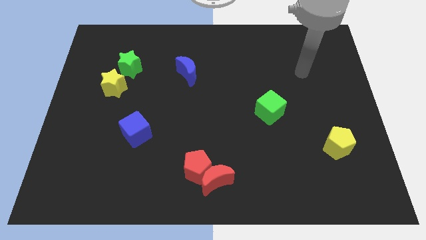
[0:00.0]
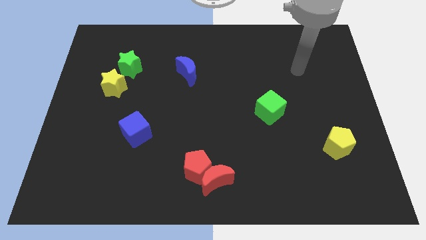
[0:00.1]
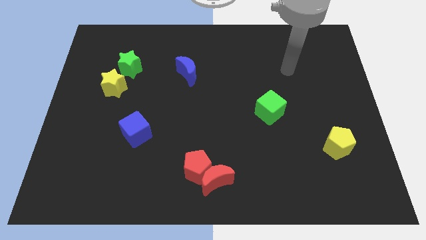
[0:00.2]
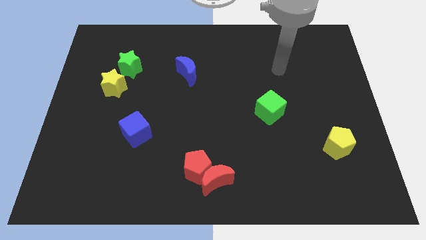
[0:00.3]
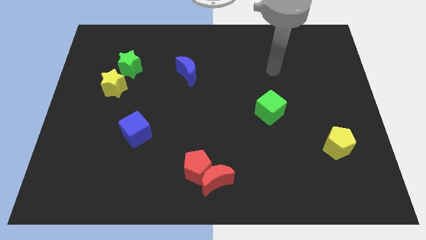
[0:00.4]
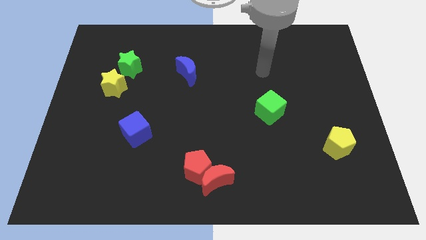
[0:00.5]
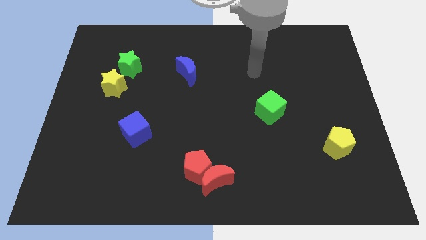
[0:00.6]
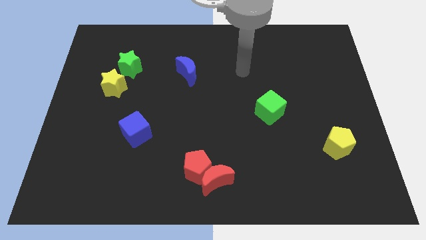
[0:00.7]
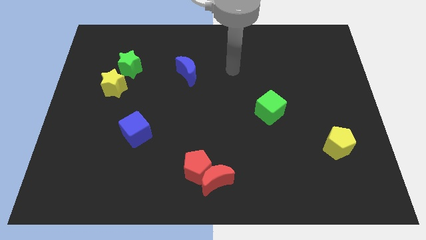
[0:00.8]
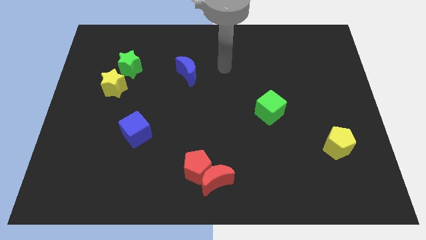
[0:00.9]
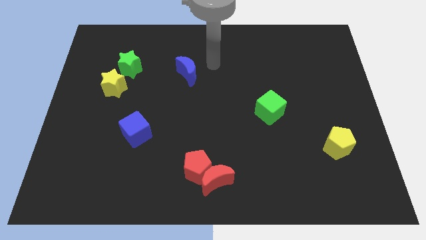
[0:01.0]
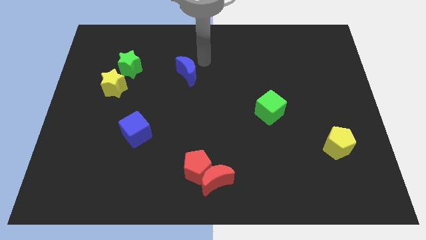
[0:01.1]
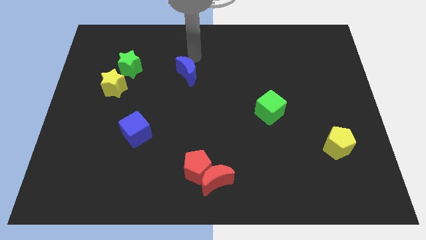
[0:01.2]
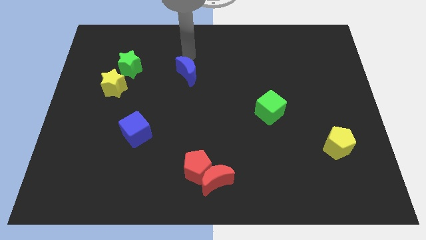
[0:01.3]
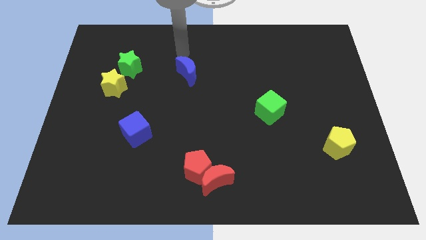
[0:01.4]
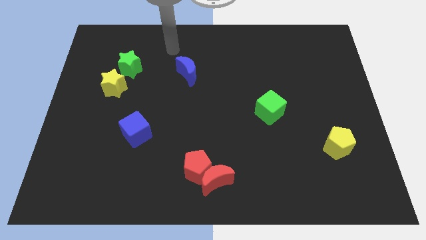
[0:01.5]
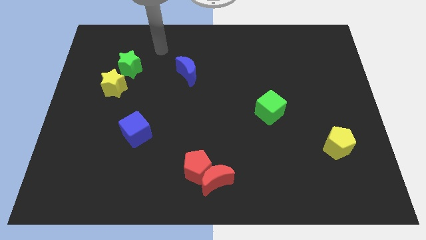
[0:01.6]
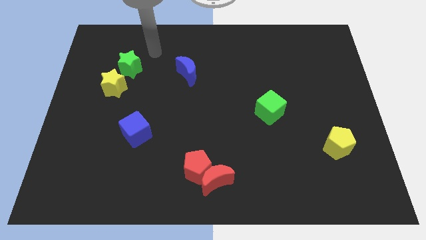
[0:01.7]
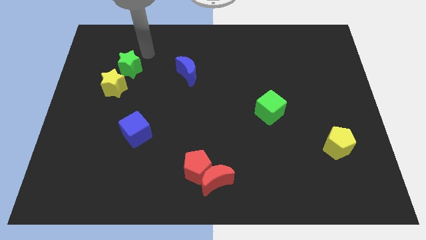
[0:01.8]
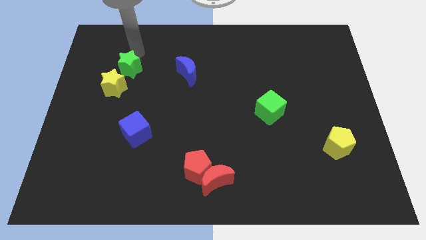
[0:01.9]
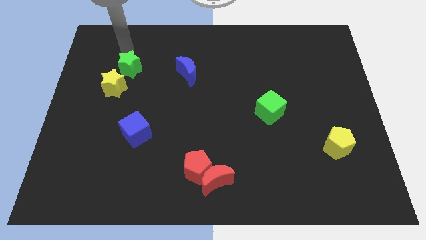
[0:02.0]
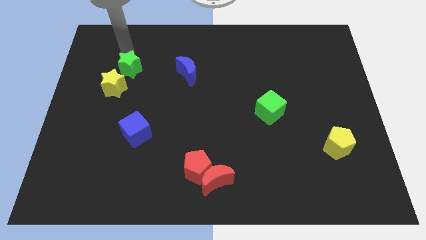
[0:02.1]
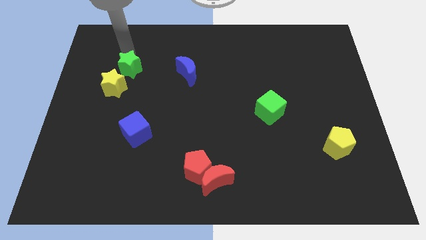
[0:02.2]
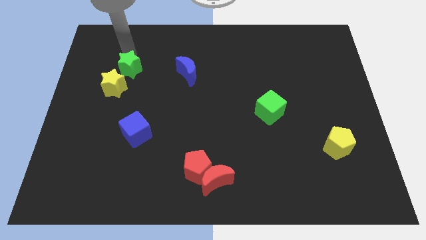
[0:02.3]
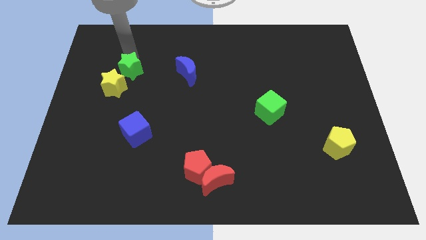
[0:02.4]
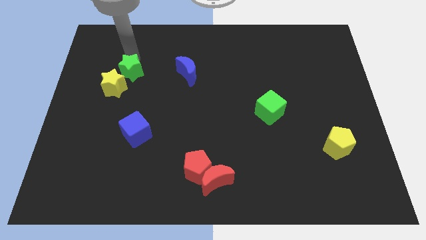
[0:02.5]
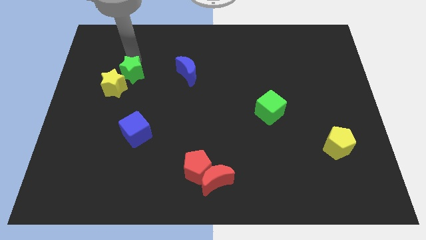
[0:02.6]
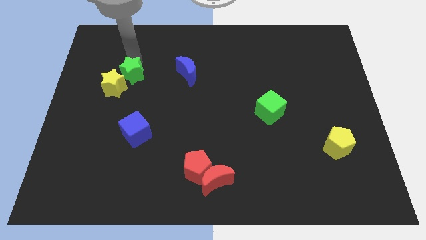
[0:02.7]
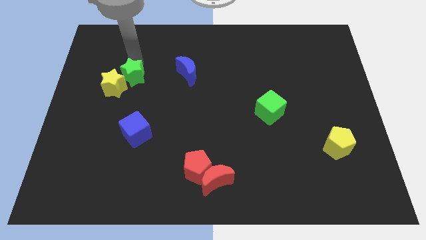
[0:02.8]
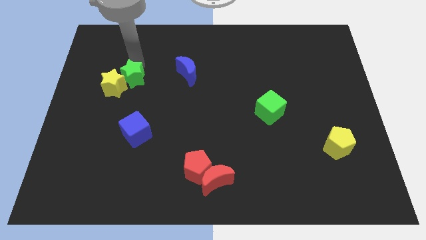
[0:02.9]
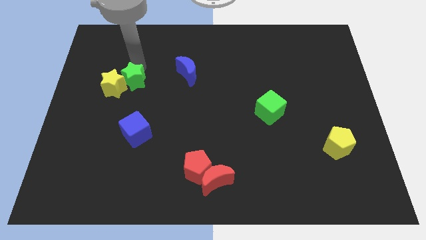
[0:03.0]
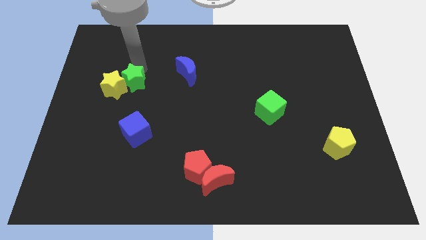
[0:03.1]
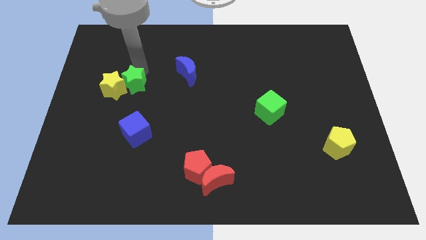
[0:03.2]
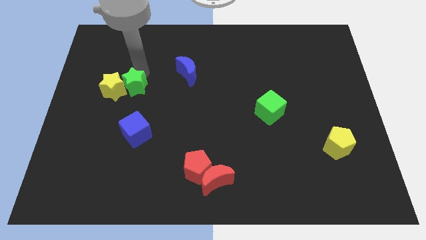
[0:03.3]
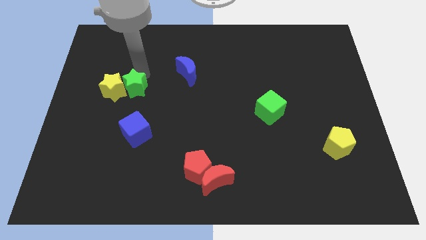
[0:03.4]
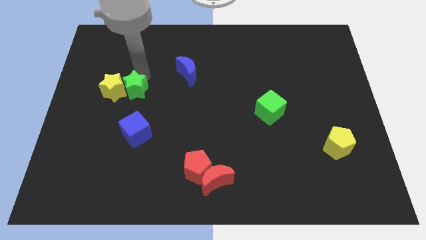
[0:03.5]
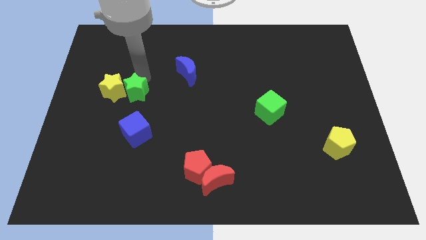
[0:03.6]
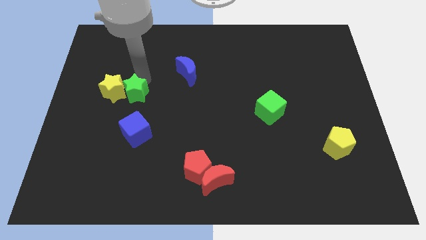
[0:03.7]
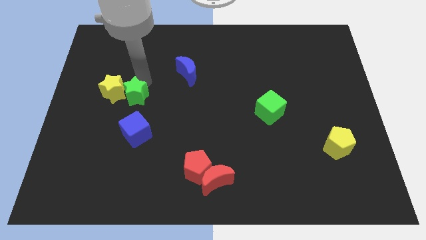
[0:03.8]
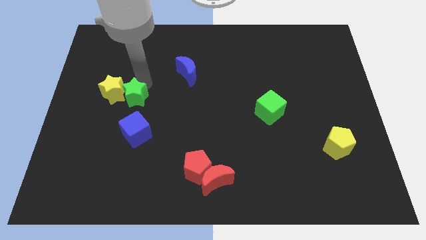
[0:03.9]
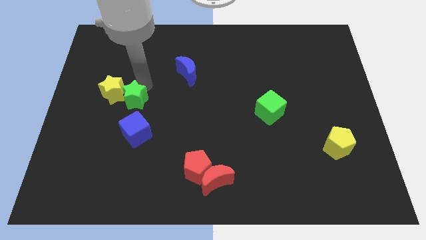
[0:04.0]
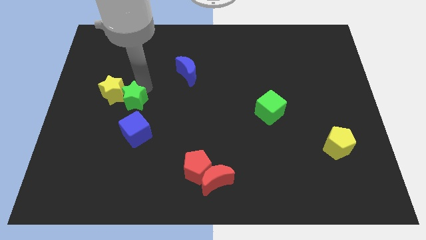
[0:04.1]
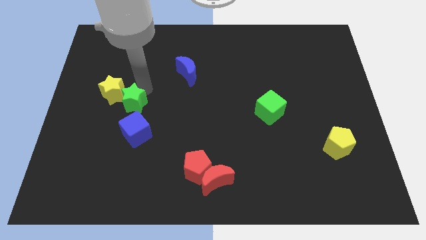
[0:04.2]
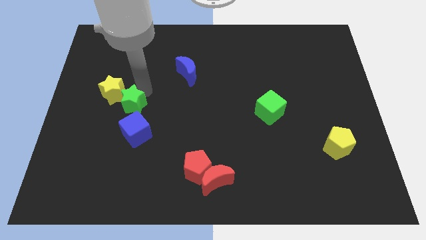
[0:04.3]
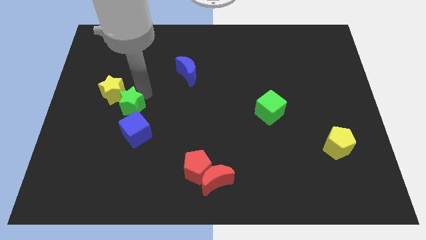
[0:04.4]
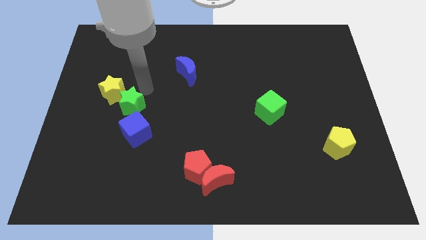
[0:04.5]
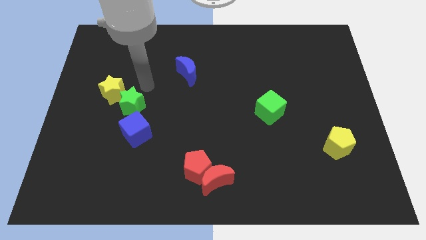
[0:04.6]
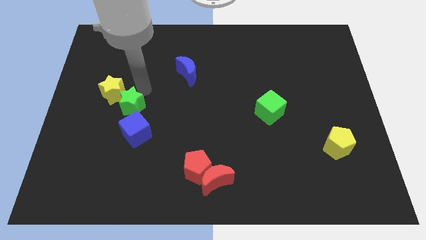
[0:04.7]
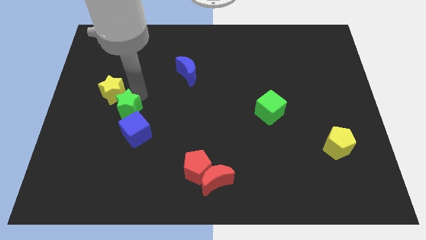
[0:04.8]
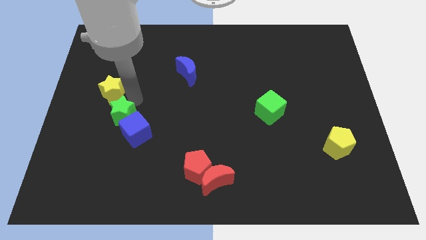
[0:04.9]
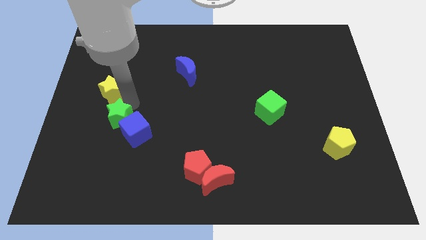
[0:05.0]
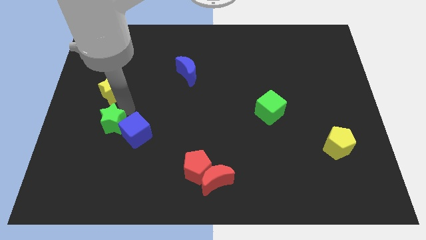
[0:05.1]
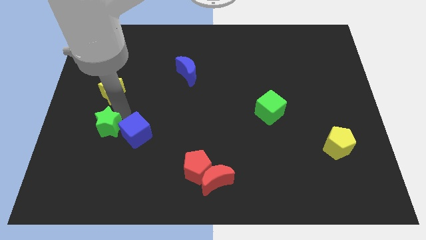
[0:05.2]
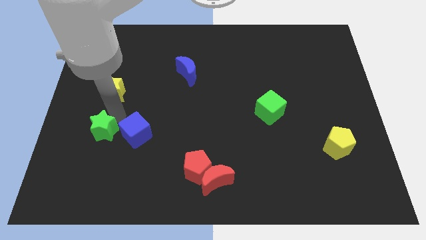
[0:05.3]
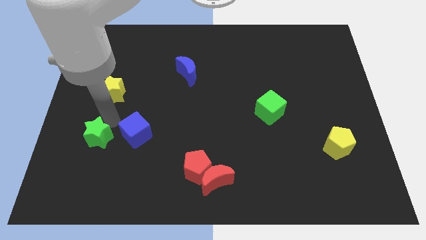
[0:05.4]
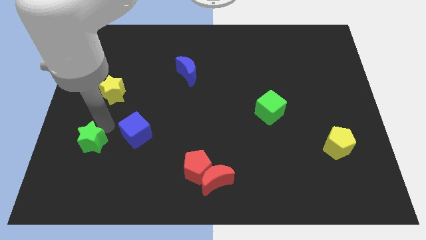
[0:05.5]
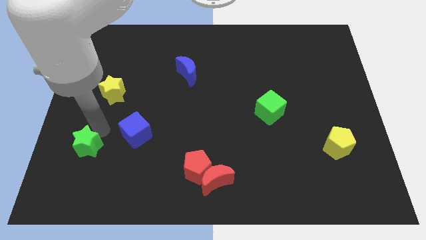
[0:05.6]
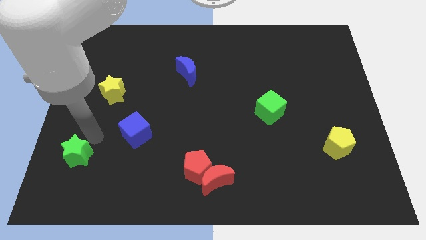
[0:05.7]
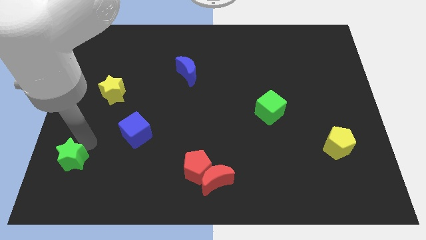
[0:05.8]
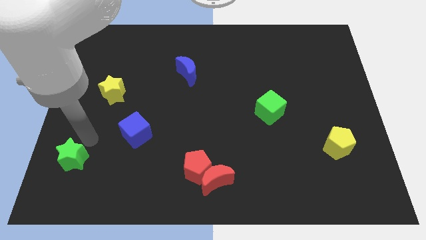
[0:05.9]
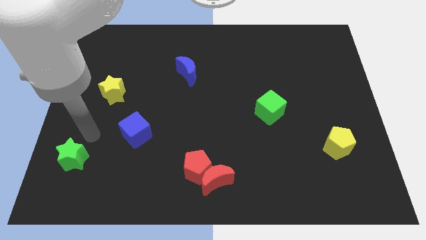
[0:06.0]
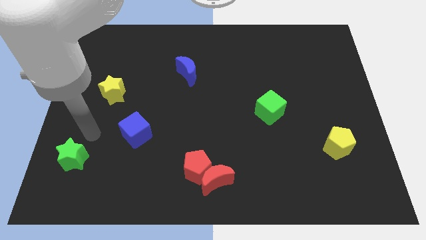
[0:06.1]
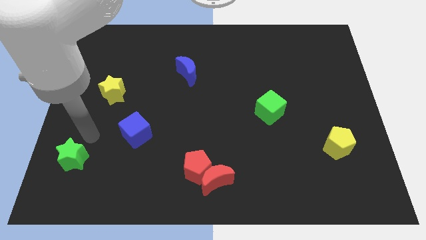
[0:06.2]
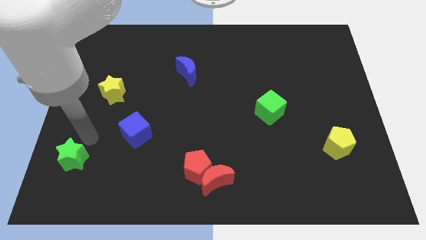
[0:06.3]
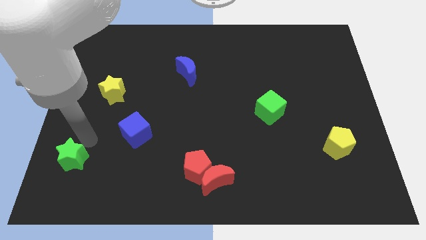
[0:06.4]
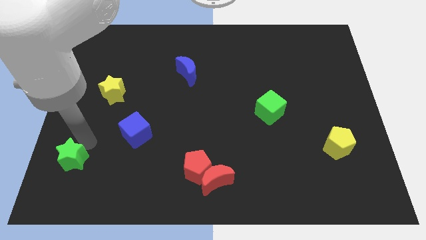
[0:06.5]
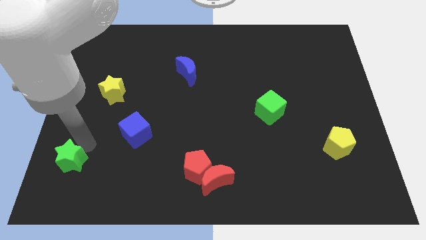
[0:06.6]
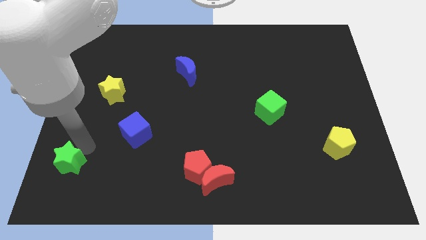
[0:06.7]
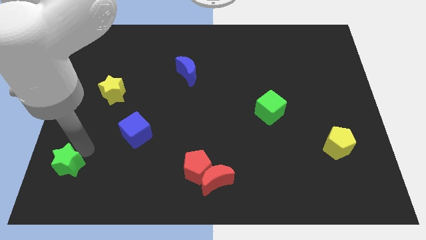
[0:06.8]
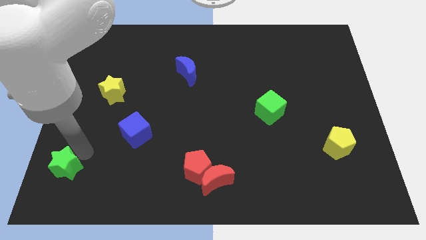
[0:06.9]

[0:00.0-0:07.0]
push the green star to the bottom left of the board
